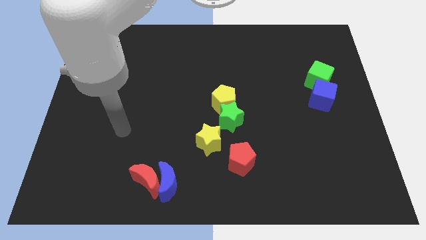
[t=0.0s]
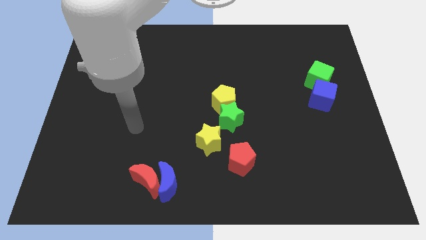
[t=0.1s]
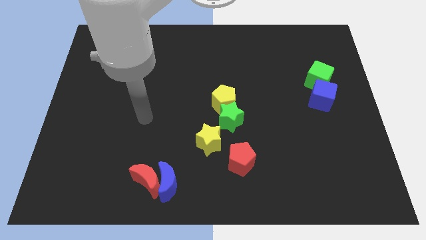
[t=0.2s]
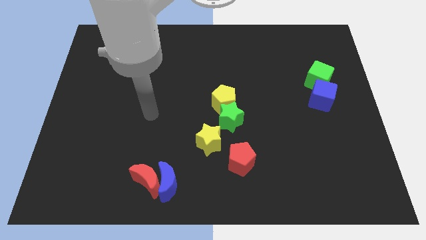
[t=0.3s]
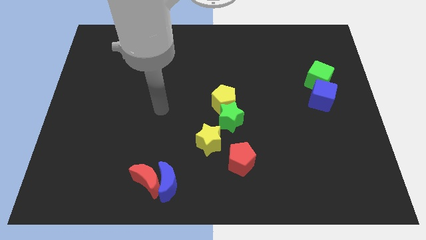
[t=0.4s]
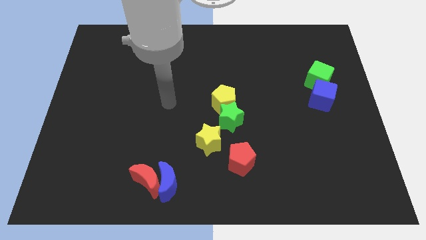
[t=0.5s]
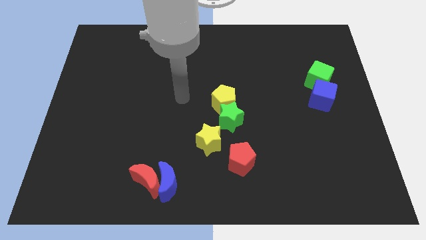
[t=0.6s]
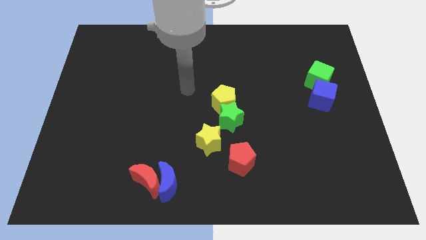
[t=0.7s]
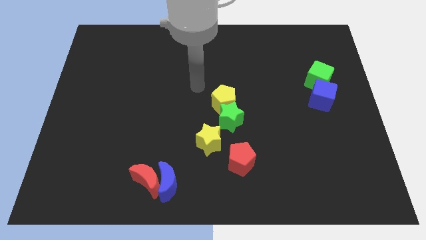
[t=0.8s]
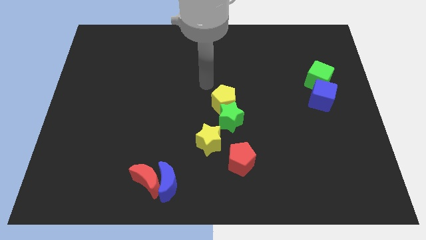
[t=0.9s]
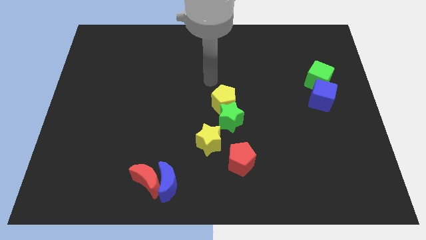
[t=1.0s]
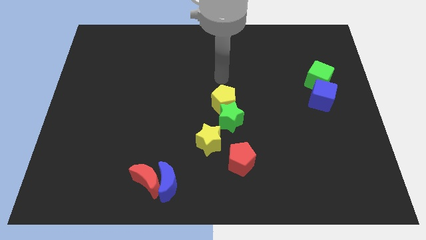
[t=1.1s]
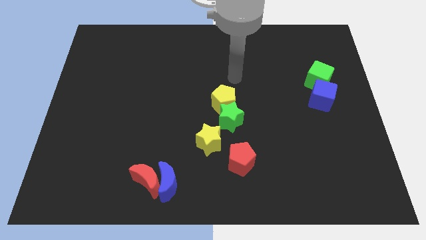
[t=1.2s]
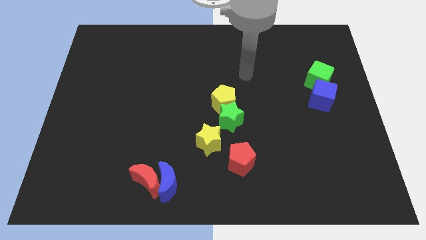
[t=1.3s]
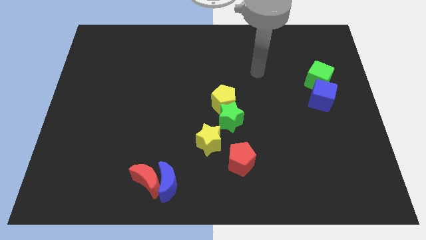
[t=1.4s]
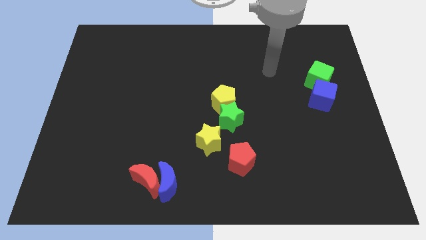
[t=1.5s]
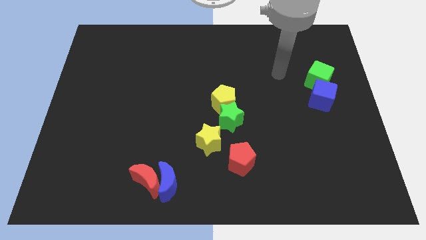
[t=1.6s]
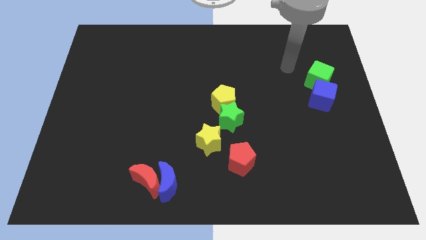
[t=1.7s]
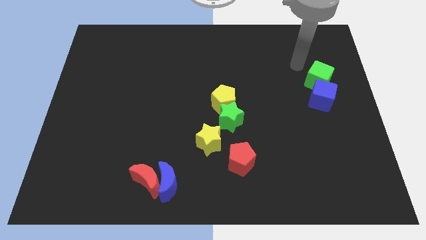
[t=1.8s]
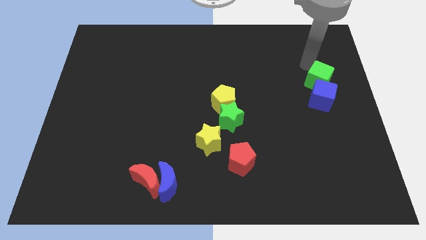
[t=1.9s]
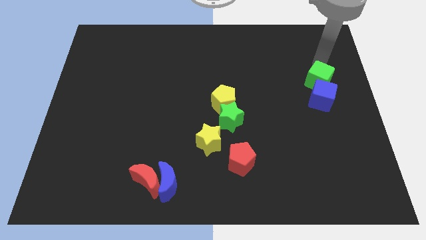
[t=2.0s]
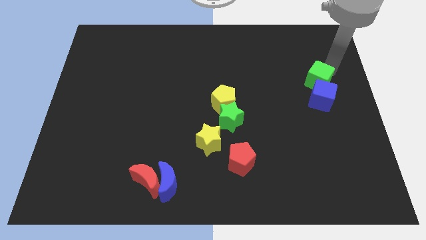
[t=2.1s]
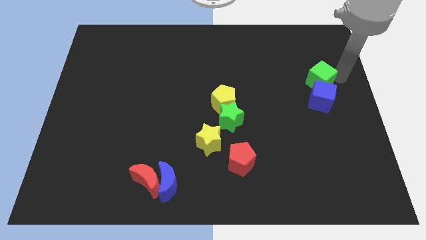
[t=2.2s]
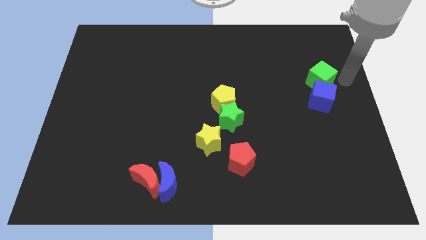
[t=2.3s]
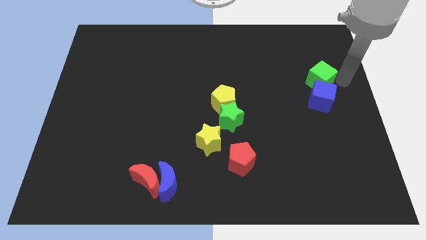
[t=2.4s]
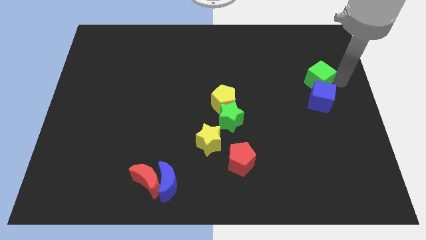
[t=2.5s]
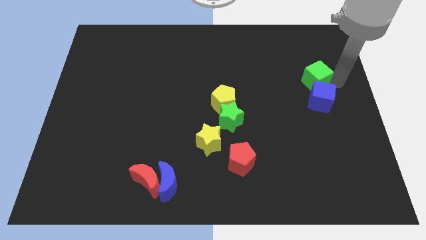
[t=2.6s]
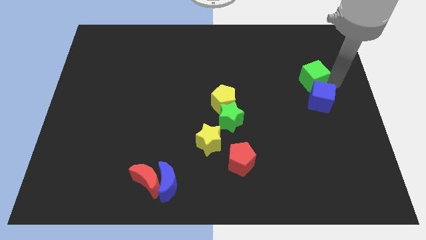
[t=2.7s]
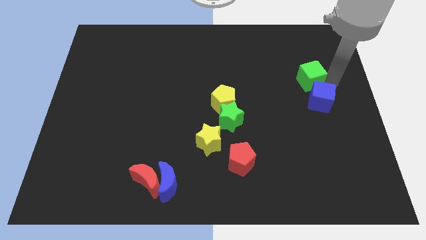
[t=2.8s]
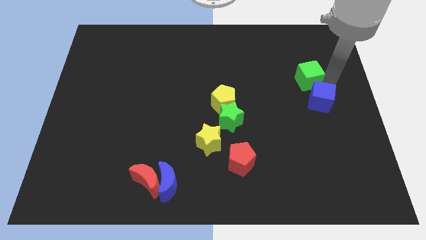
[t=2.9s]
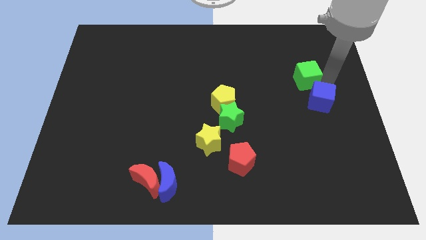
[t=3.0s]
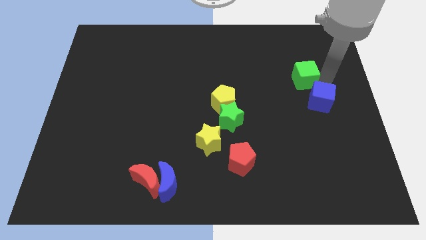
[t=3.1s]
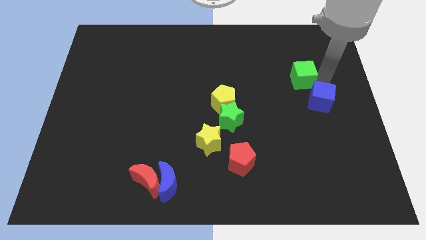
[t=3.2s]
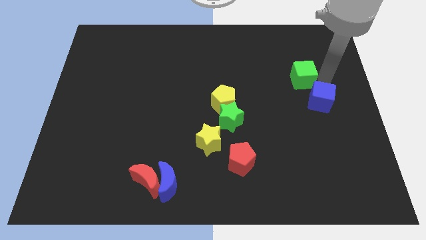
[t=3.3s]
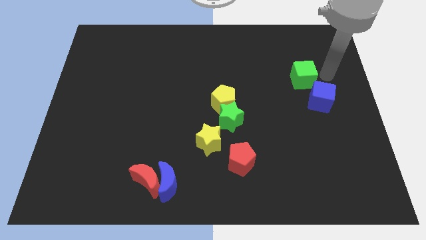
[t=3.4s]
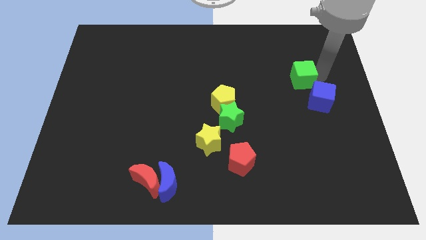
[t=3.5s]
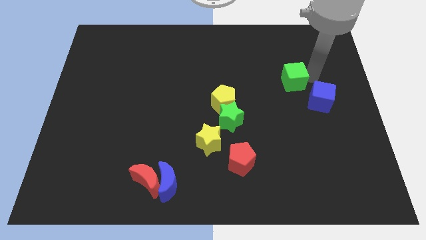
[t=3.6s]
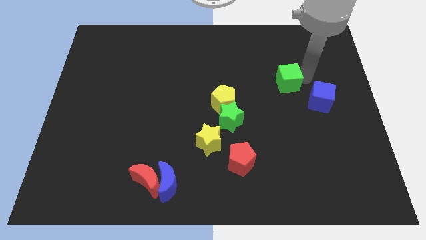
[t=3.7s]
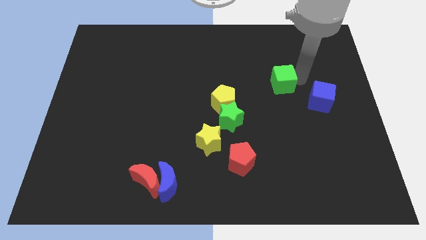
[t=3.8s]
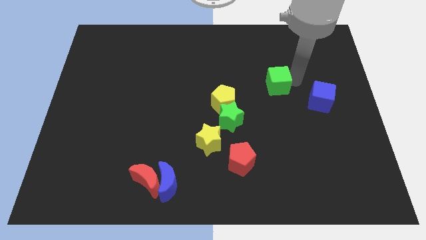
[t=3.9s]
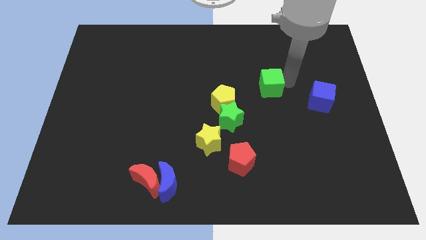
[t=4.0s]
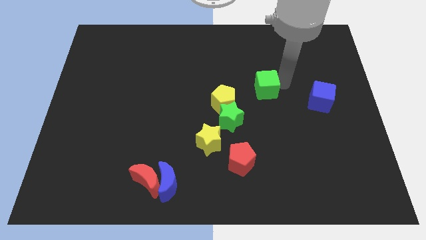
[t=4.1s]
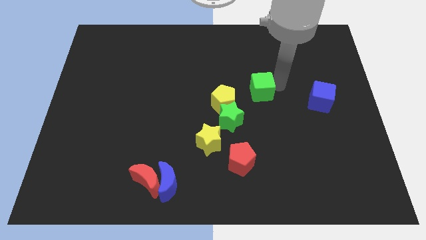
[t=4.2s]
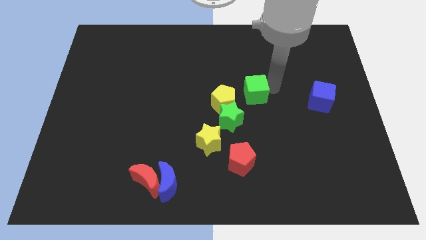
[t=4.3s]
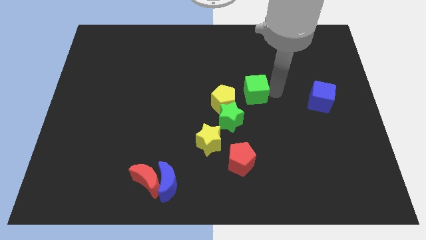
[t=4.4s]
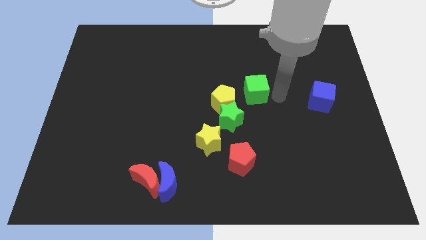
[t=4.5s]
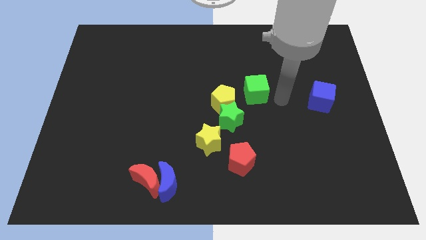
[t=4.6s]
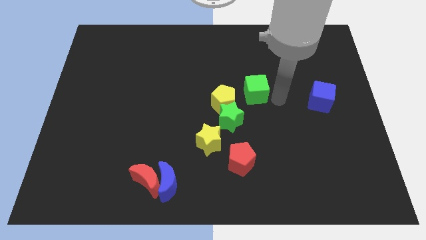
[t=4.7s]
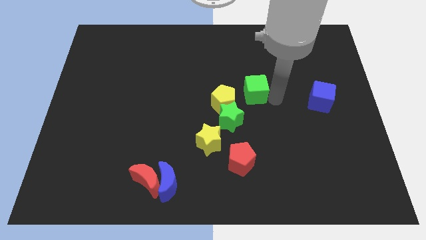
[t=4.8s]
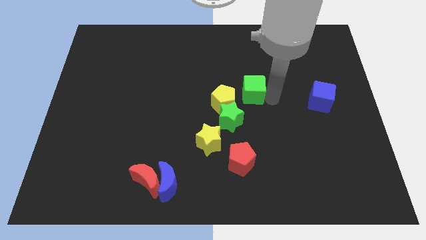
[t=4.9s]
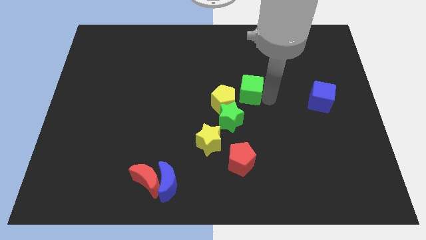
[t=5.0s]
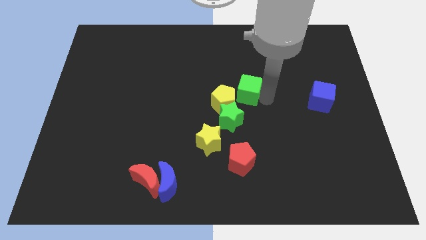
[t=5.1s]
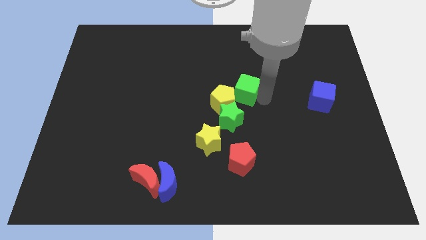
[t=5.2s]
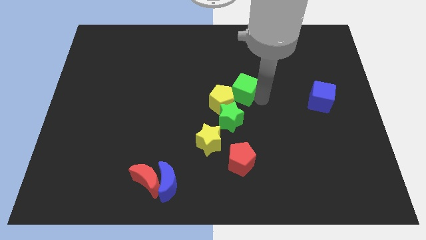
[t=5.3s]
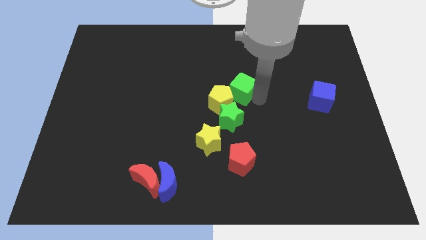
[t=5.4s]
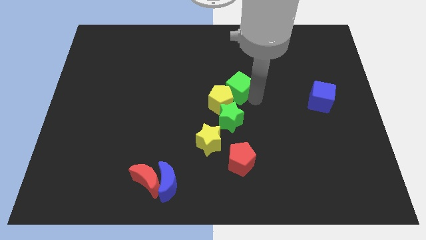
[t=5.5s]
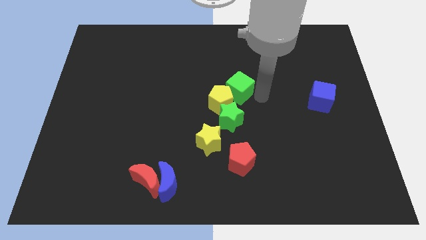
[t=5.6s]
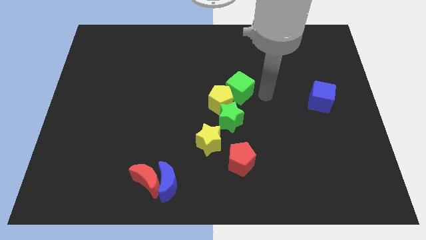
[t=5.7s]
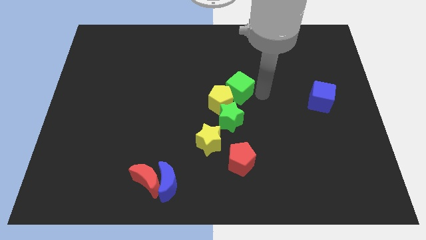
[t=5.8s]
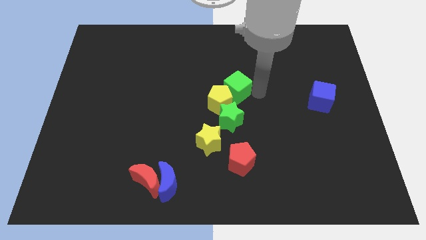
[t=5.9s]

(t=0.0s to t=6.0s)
move the green cube to the left

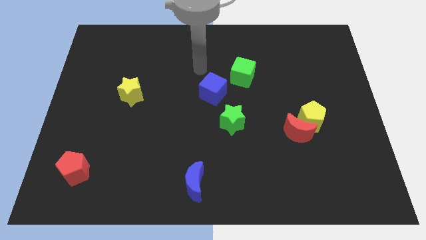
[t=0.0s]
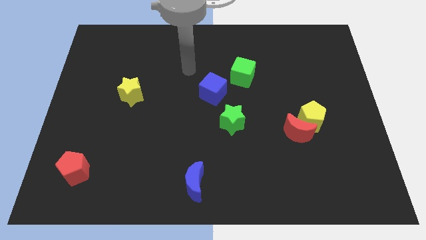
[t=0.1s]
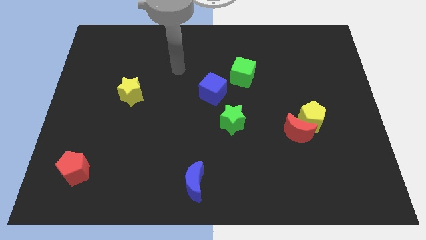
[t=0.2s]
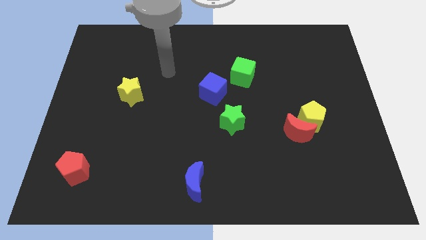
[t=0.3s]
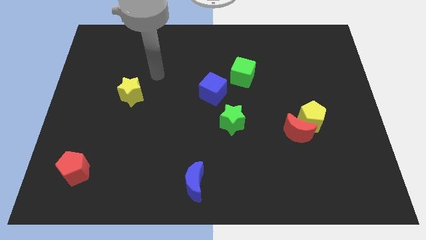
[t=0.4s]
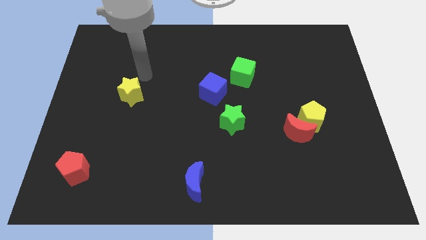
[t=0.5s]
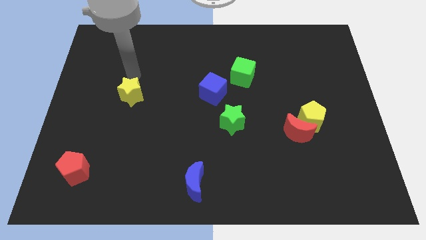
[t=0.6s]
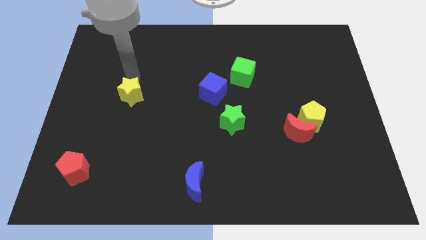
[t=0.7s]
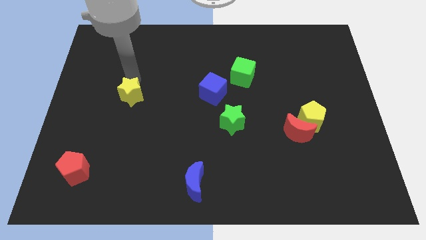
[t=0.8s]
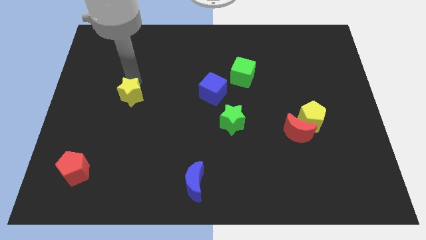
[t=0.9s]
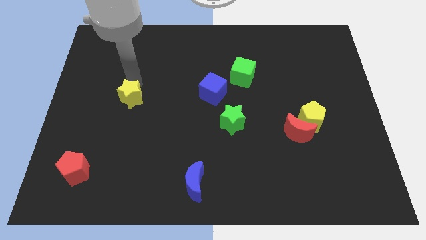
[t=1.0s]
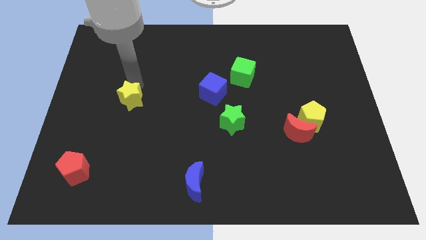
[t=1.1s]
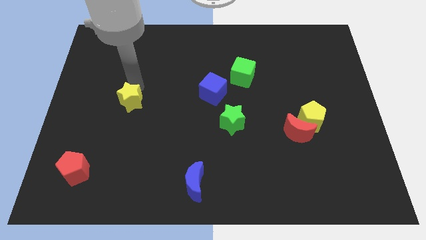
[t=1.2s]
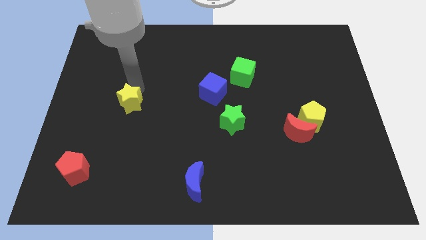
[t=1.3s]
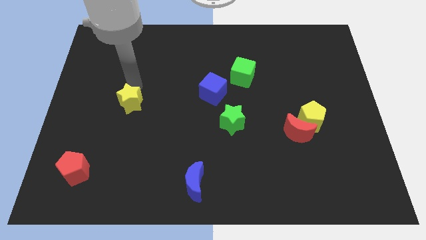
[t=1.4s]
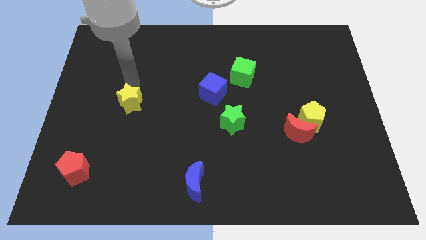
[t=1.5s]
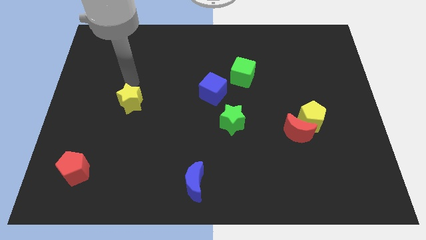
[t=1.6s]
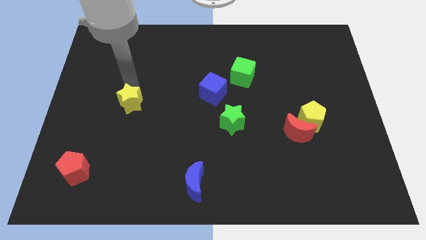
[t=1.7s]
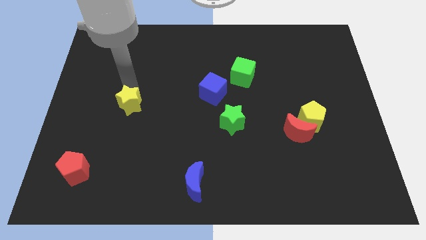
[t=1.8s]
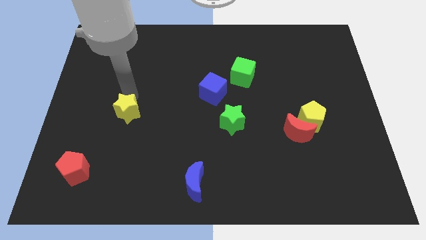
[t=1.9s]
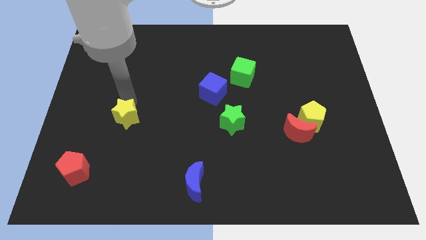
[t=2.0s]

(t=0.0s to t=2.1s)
slide the yellow star downwards somewhat

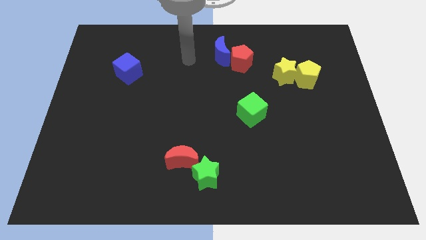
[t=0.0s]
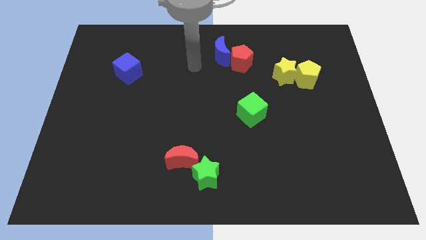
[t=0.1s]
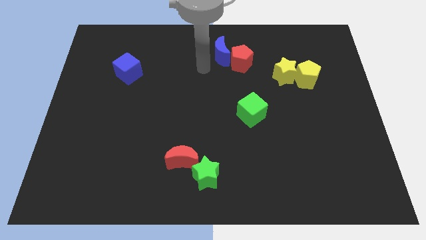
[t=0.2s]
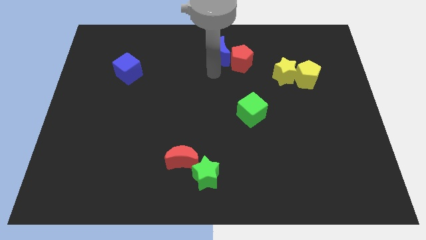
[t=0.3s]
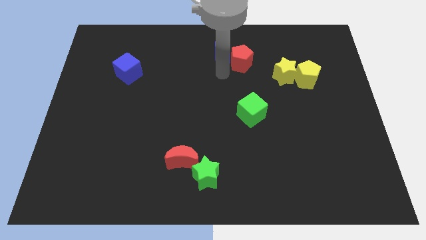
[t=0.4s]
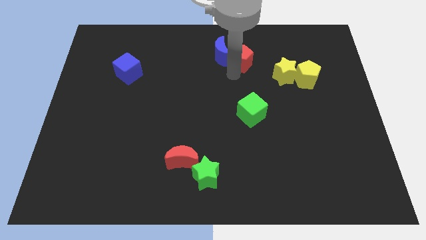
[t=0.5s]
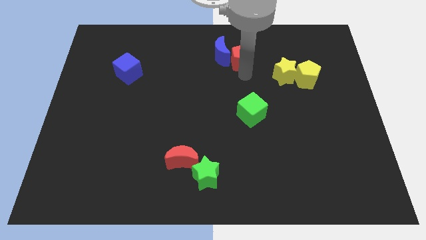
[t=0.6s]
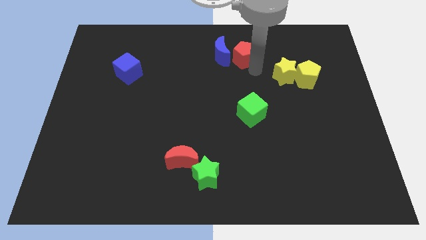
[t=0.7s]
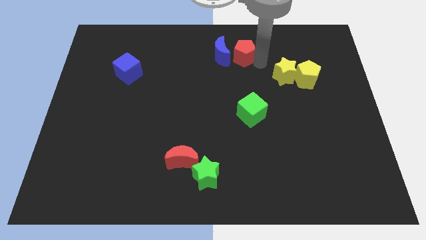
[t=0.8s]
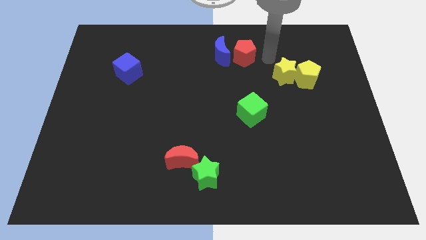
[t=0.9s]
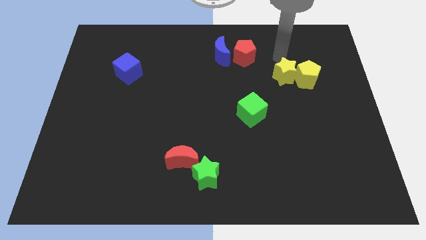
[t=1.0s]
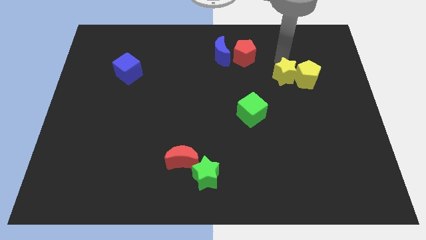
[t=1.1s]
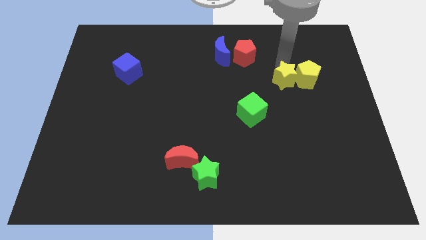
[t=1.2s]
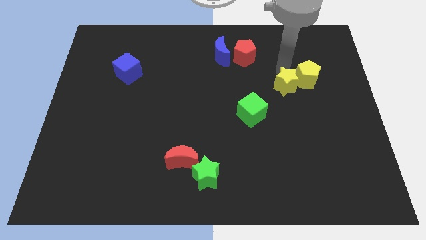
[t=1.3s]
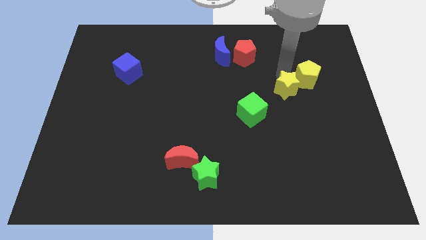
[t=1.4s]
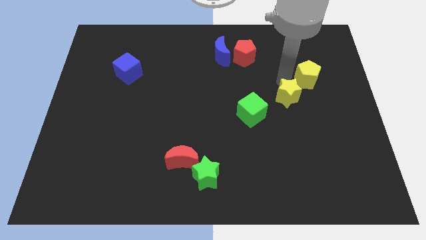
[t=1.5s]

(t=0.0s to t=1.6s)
push the yellow star downwards somewhat
